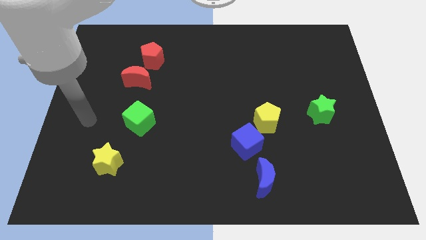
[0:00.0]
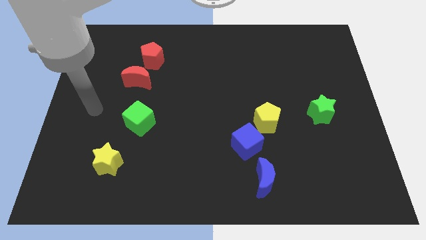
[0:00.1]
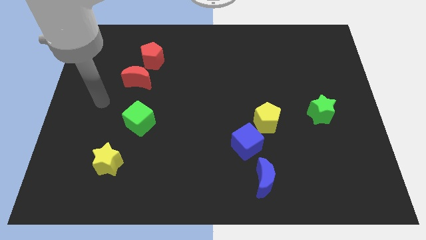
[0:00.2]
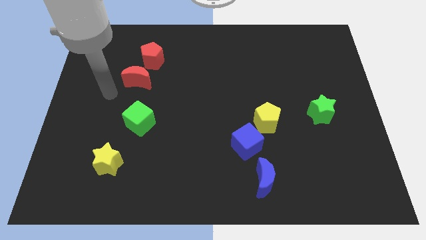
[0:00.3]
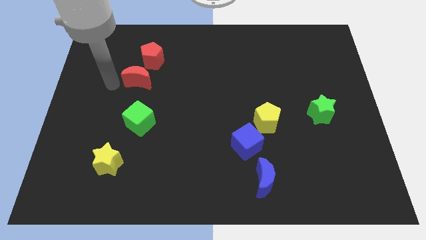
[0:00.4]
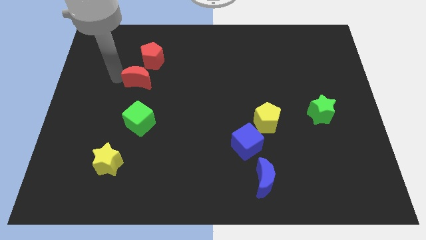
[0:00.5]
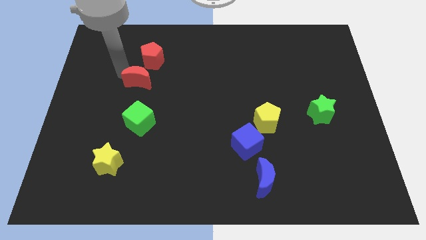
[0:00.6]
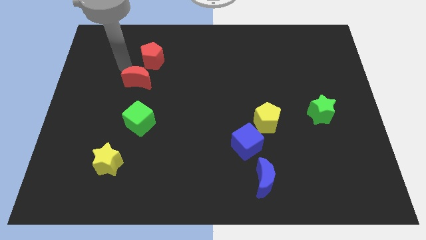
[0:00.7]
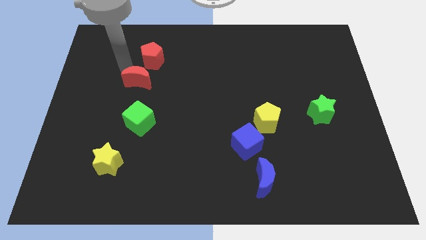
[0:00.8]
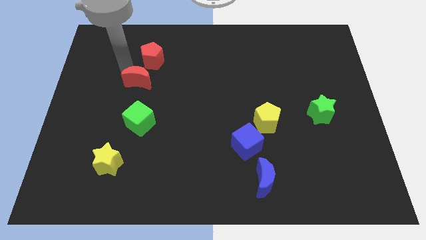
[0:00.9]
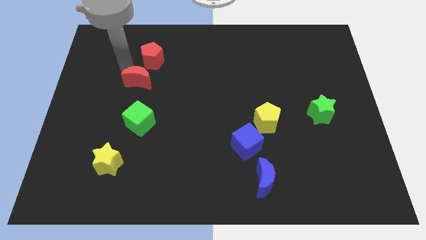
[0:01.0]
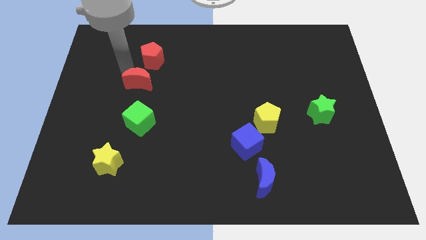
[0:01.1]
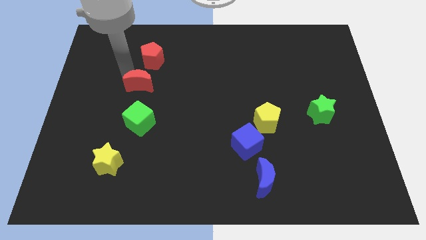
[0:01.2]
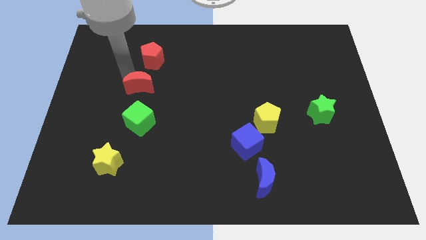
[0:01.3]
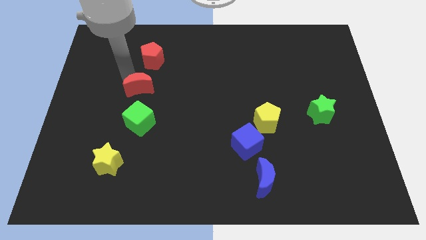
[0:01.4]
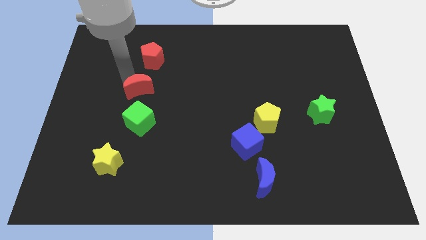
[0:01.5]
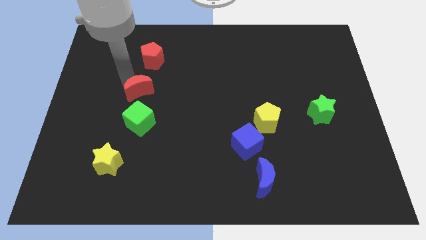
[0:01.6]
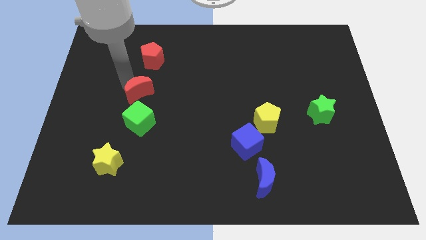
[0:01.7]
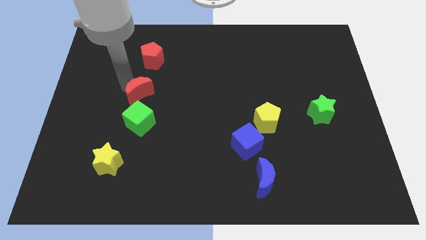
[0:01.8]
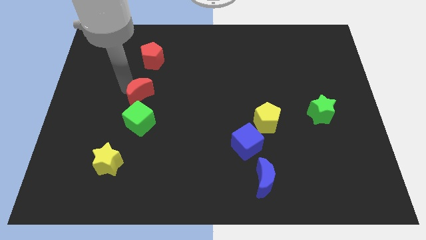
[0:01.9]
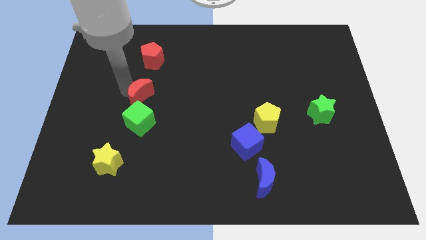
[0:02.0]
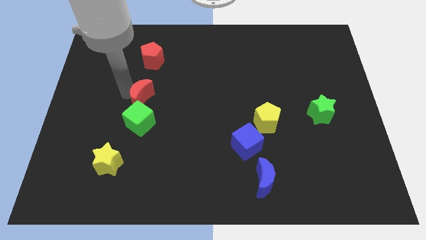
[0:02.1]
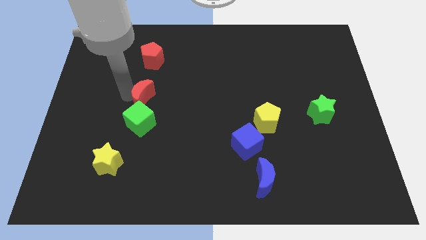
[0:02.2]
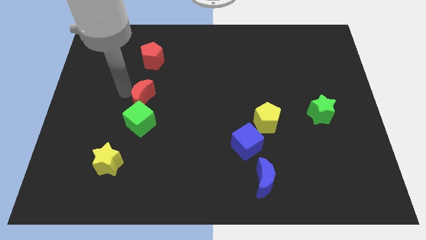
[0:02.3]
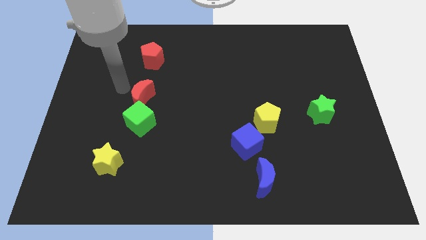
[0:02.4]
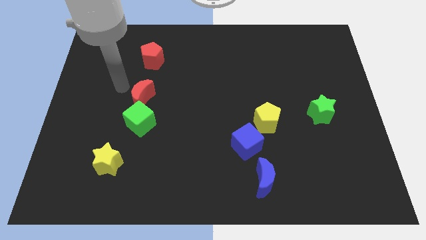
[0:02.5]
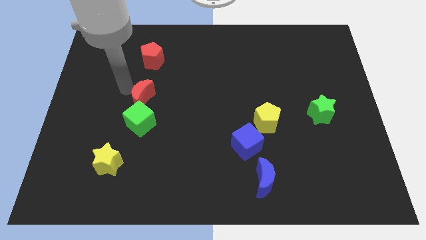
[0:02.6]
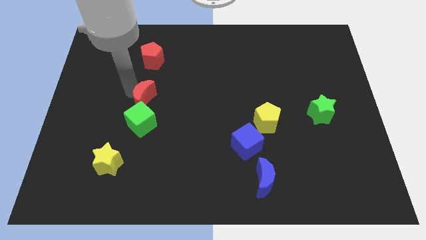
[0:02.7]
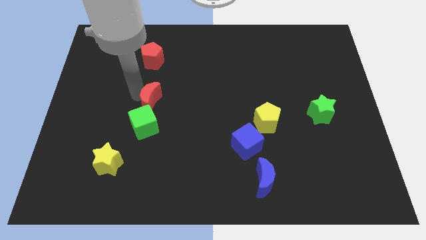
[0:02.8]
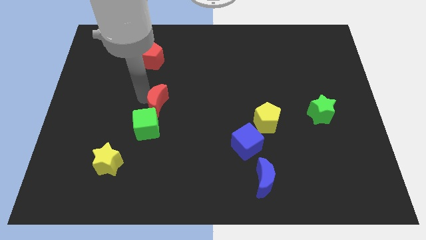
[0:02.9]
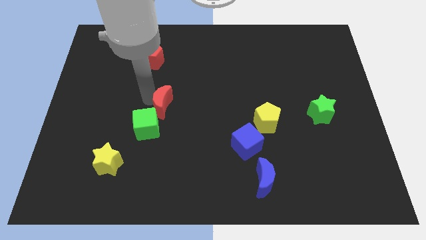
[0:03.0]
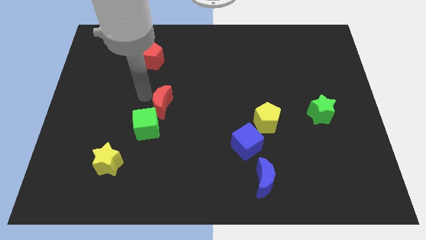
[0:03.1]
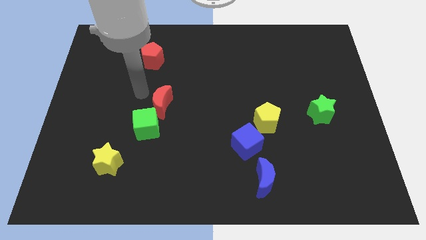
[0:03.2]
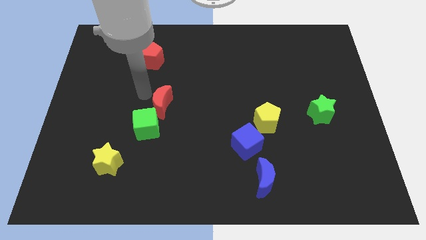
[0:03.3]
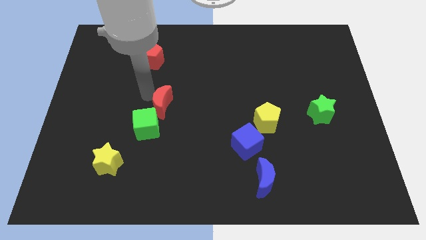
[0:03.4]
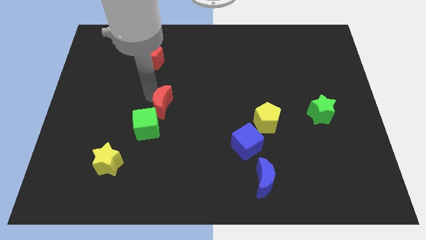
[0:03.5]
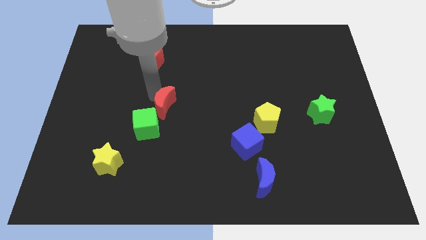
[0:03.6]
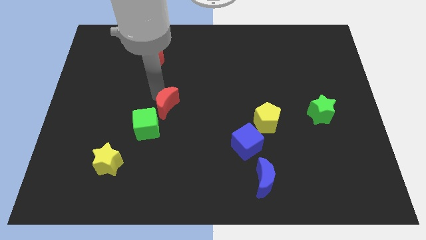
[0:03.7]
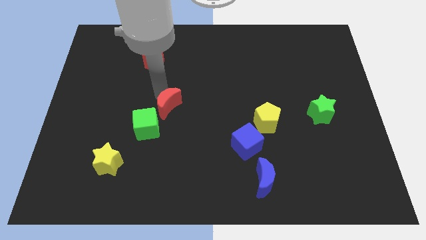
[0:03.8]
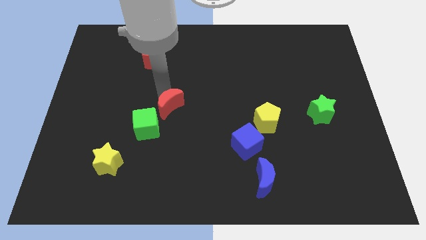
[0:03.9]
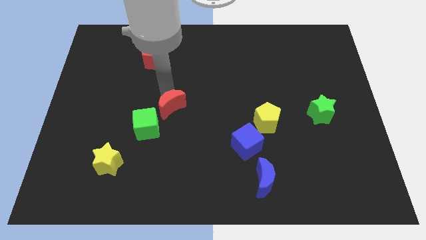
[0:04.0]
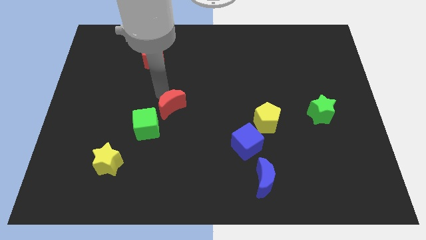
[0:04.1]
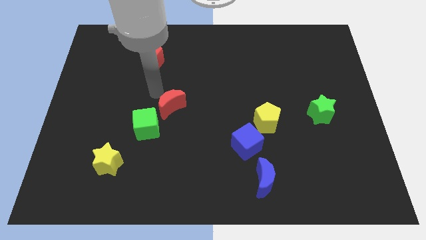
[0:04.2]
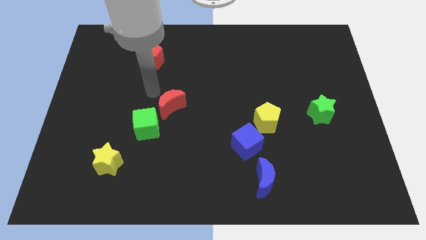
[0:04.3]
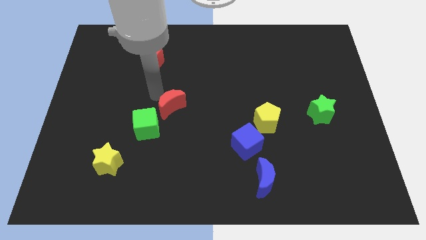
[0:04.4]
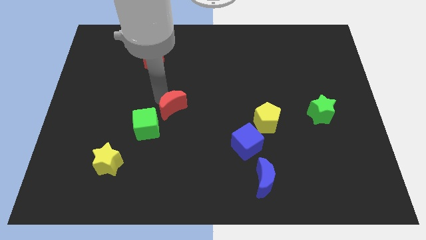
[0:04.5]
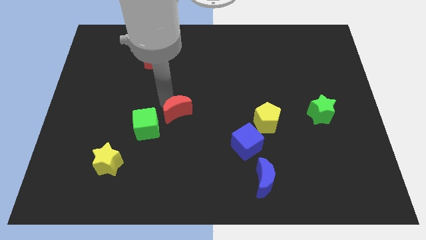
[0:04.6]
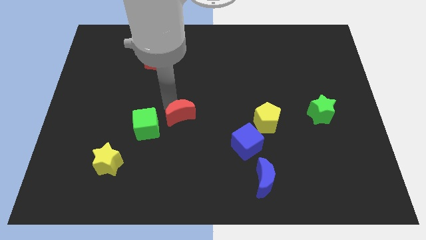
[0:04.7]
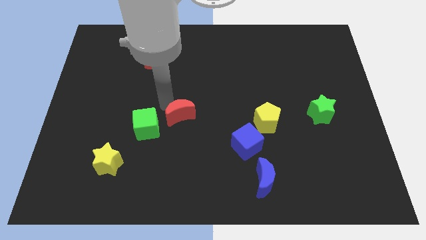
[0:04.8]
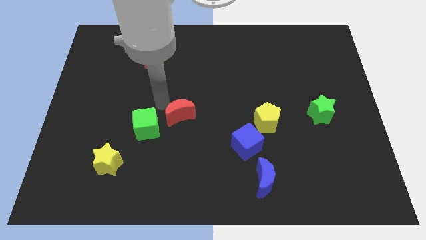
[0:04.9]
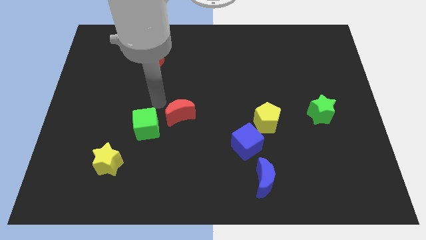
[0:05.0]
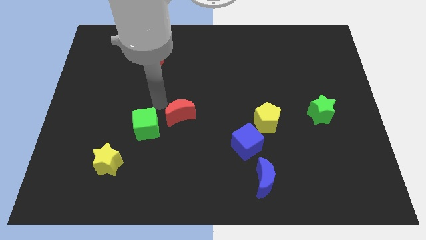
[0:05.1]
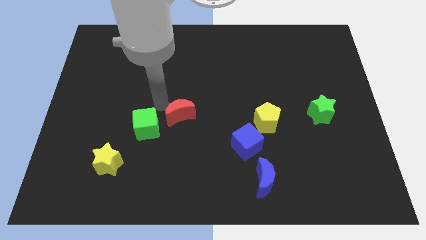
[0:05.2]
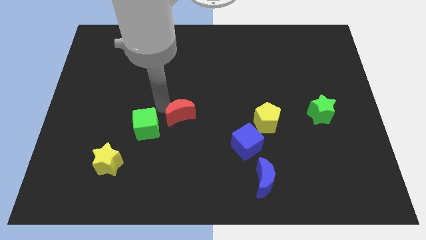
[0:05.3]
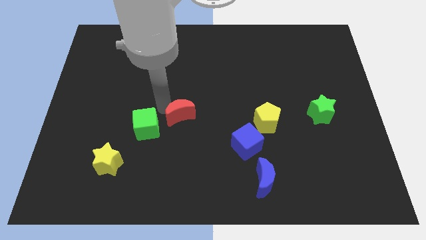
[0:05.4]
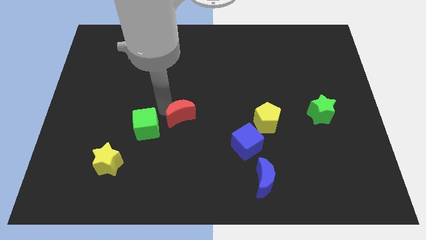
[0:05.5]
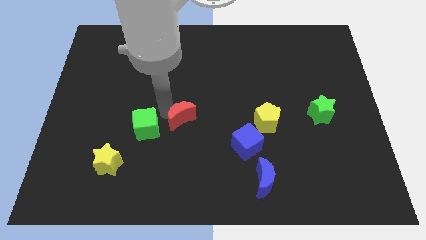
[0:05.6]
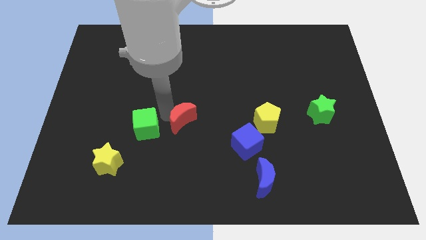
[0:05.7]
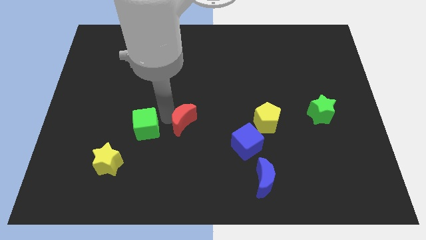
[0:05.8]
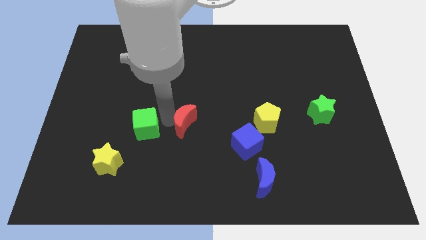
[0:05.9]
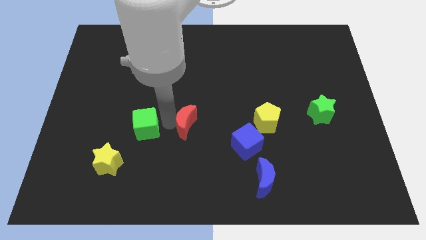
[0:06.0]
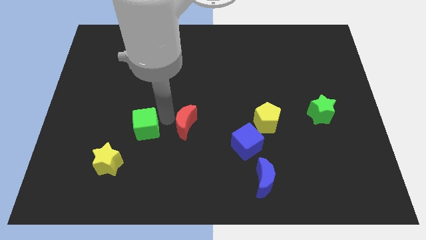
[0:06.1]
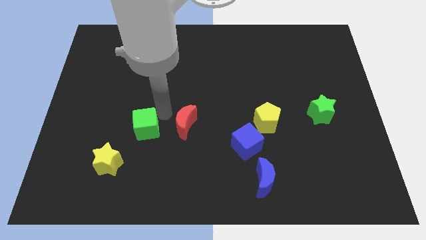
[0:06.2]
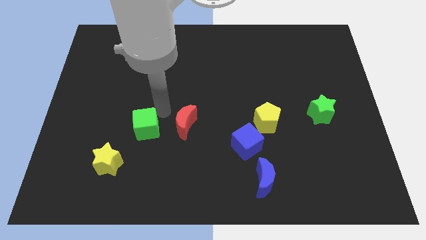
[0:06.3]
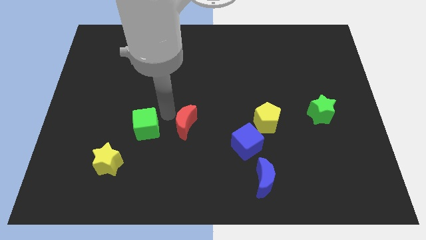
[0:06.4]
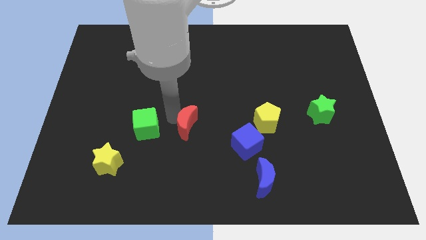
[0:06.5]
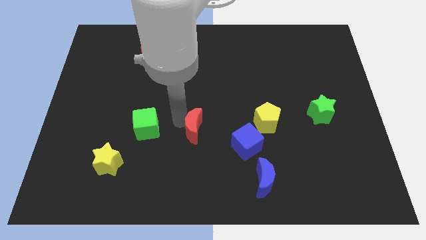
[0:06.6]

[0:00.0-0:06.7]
slide the red moon down and right

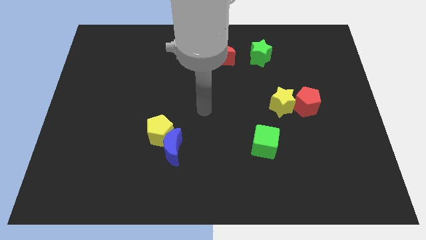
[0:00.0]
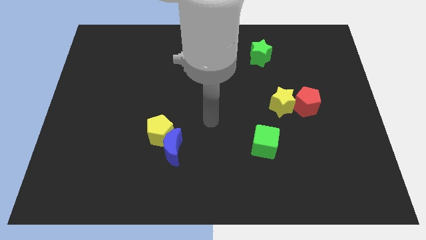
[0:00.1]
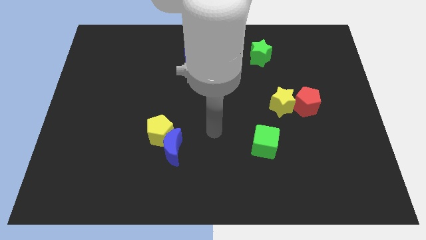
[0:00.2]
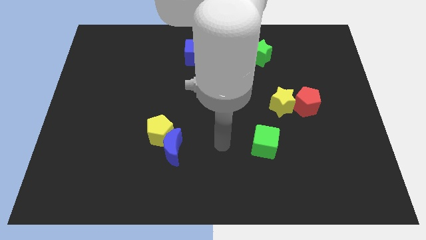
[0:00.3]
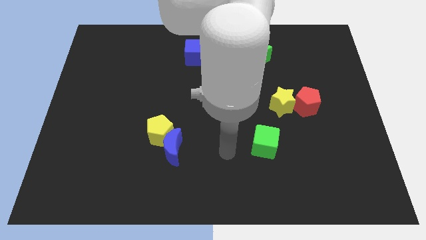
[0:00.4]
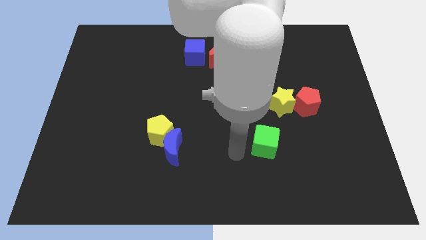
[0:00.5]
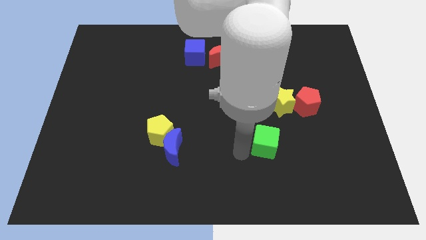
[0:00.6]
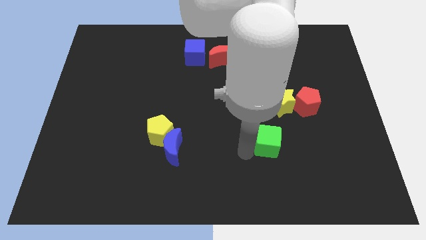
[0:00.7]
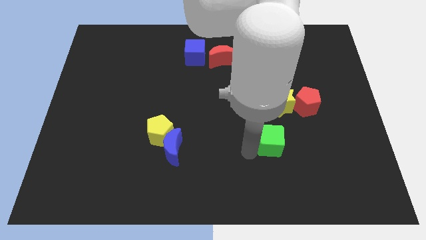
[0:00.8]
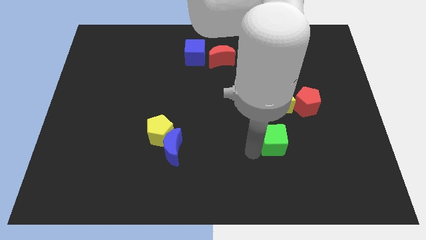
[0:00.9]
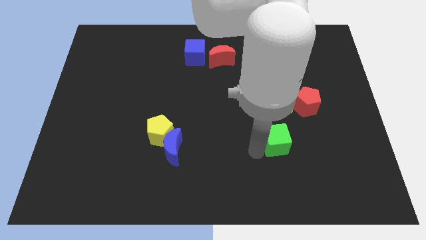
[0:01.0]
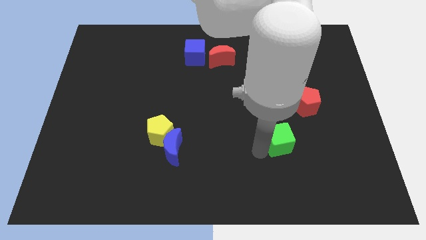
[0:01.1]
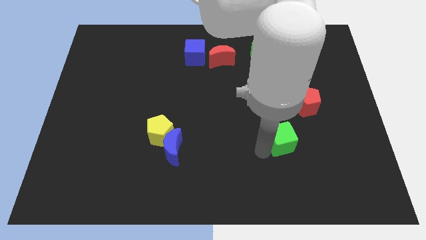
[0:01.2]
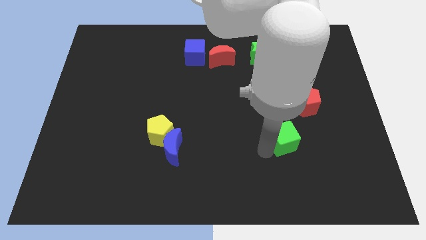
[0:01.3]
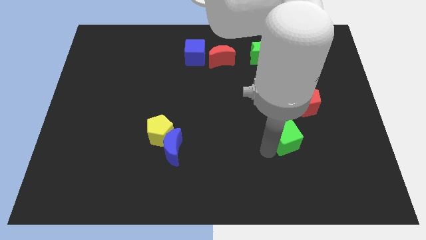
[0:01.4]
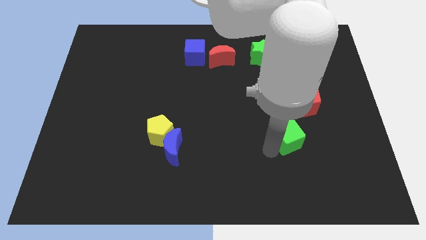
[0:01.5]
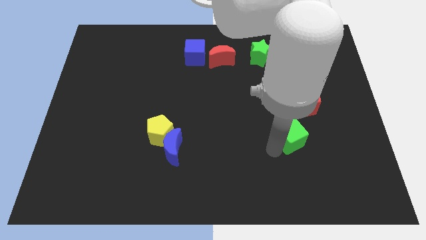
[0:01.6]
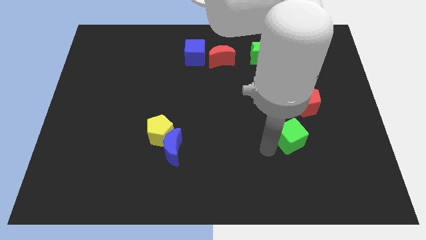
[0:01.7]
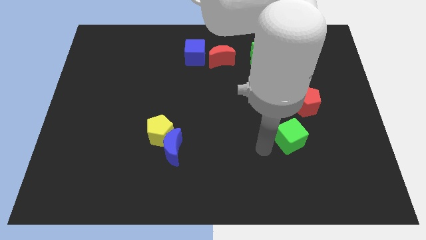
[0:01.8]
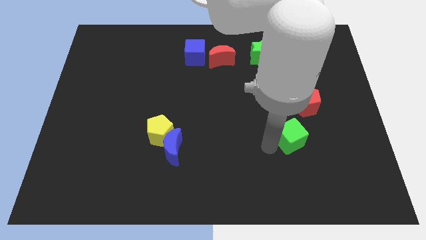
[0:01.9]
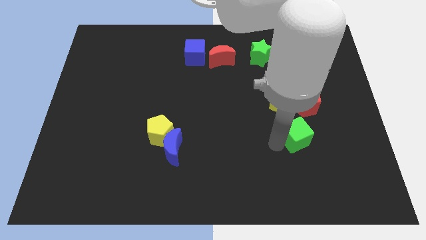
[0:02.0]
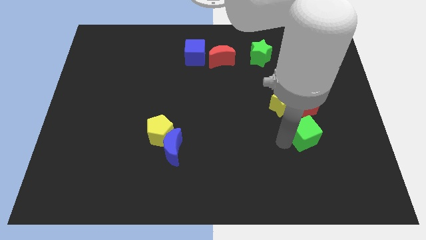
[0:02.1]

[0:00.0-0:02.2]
slightly move the green cube upwards and then to the right
